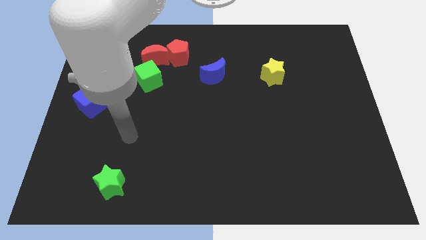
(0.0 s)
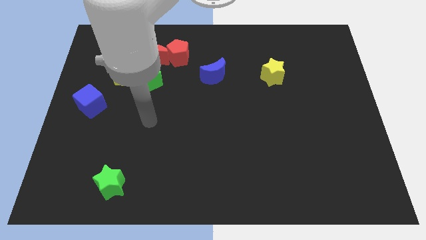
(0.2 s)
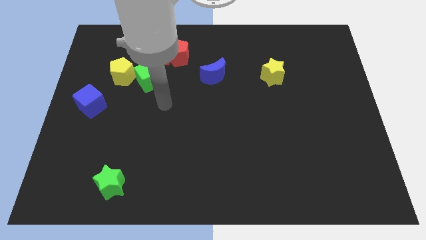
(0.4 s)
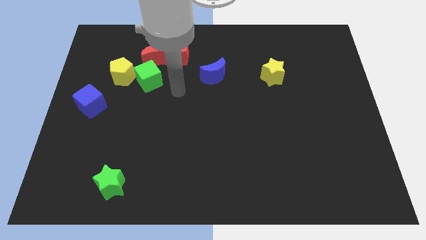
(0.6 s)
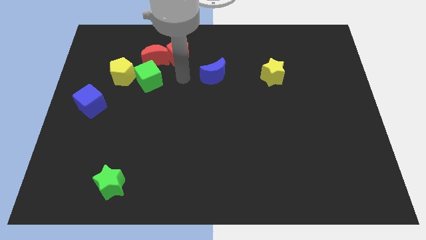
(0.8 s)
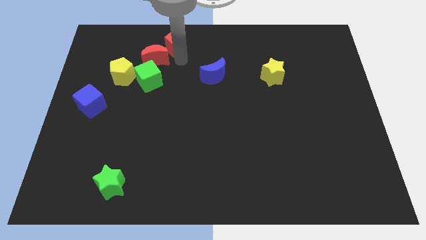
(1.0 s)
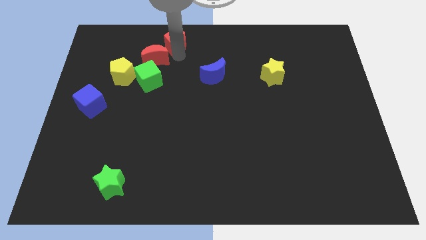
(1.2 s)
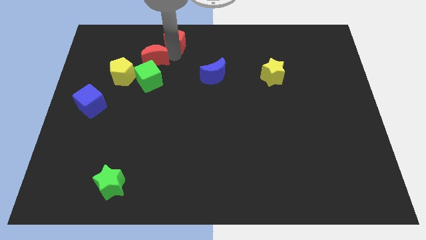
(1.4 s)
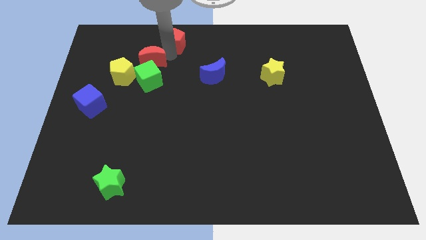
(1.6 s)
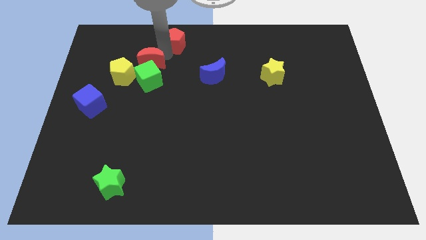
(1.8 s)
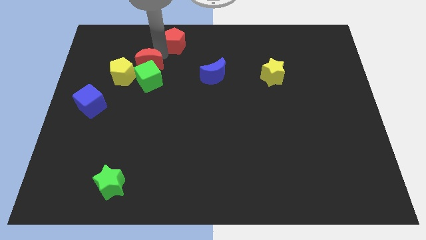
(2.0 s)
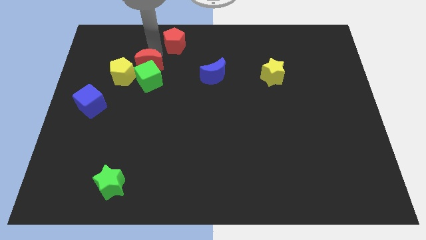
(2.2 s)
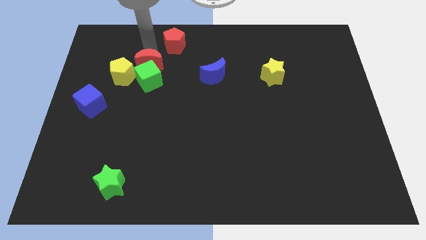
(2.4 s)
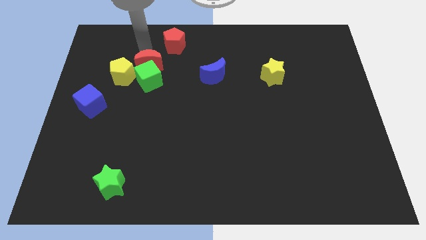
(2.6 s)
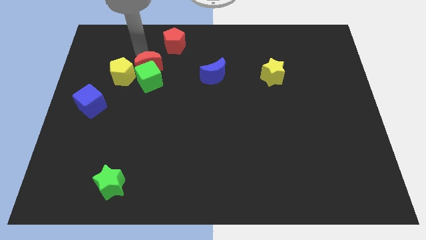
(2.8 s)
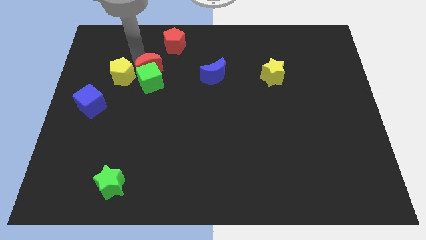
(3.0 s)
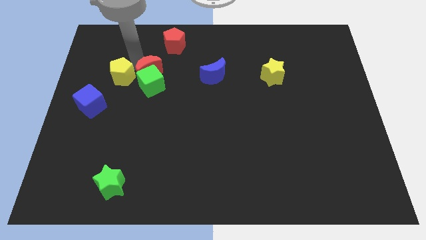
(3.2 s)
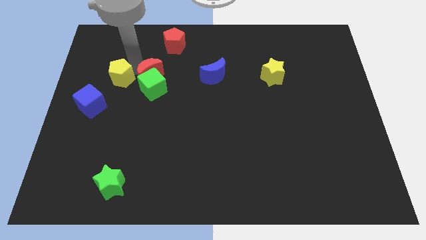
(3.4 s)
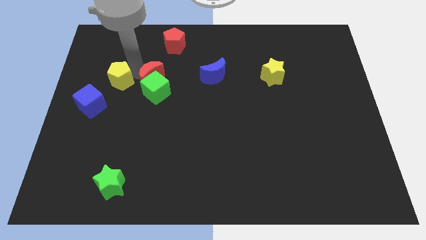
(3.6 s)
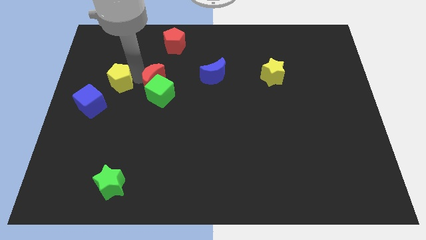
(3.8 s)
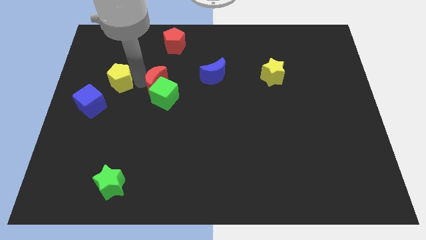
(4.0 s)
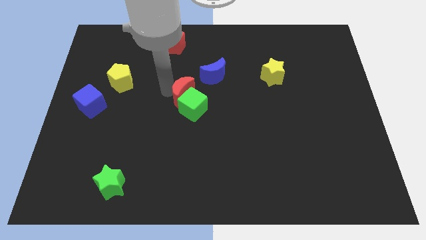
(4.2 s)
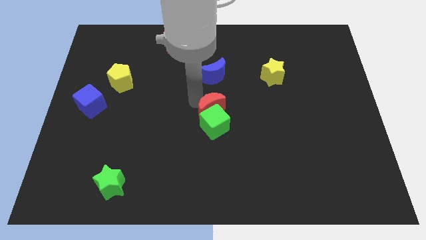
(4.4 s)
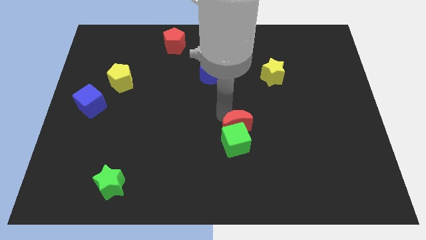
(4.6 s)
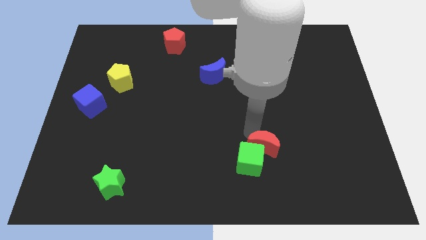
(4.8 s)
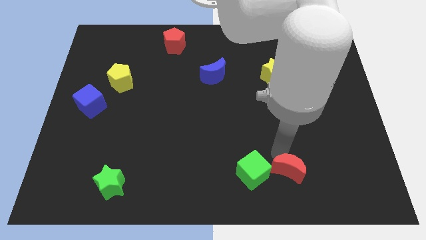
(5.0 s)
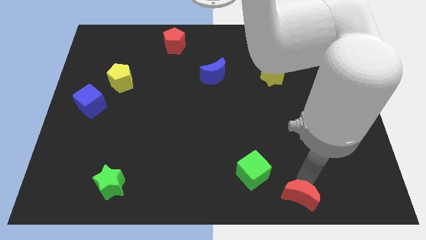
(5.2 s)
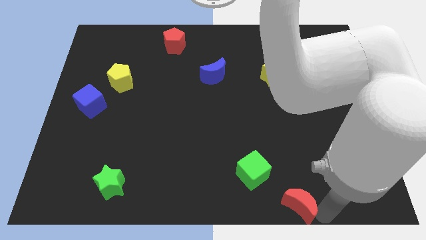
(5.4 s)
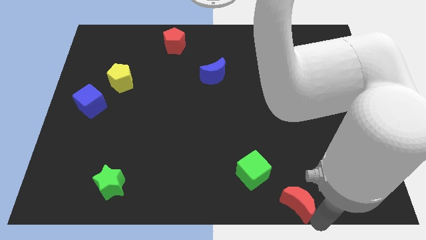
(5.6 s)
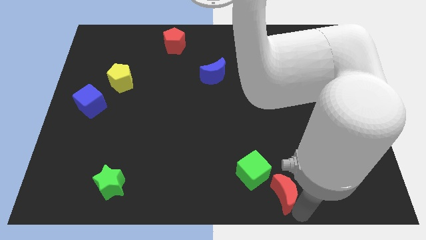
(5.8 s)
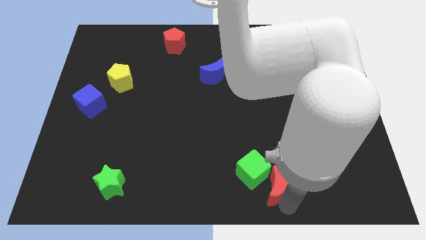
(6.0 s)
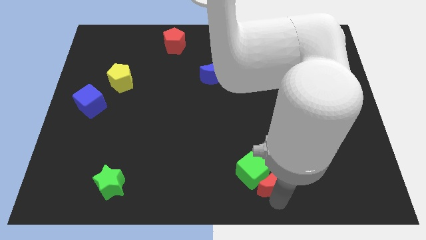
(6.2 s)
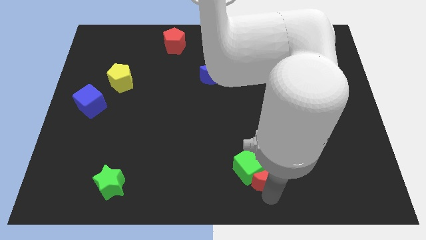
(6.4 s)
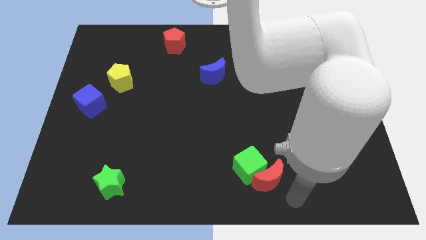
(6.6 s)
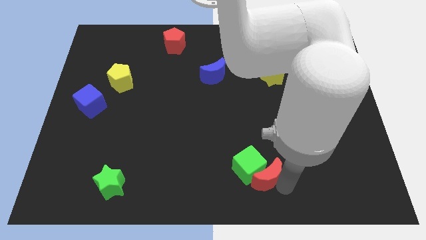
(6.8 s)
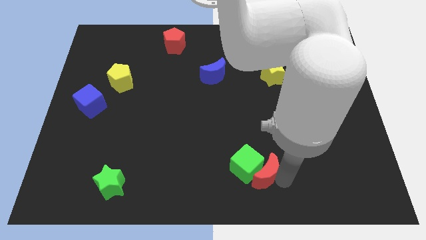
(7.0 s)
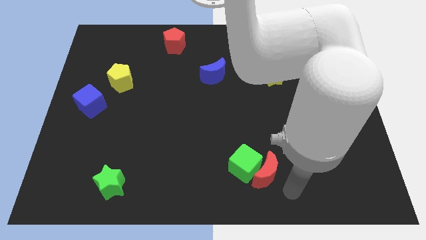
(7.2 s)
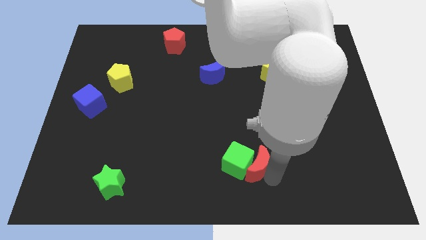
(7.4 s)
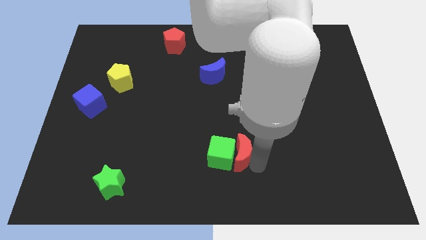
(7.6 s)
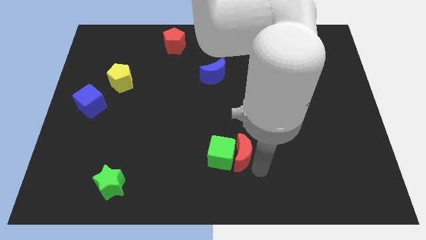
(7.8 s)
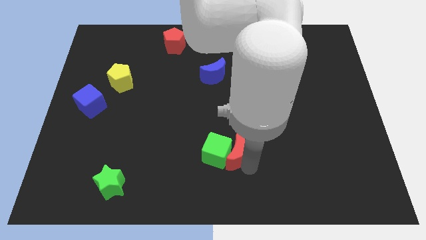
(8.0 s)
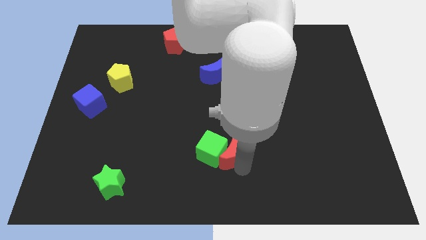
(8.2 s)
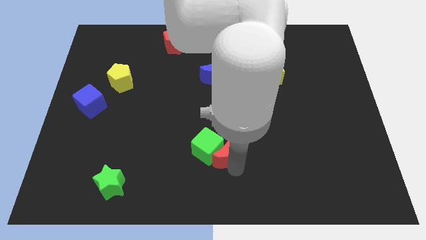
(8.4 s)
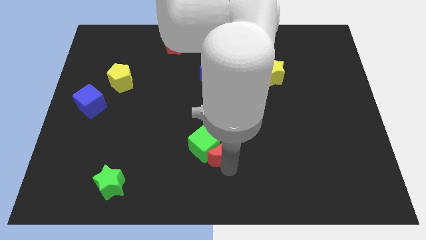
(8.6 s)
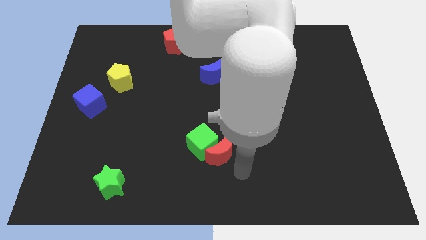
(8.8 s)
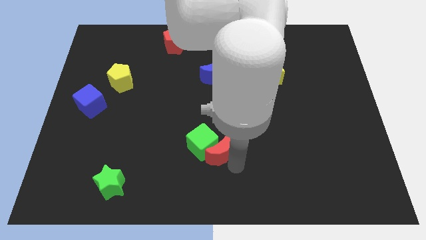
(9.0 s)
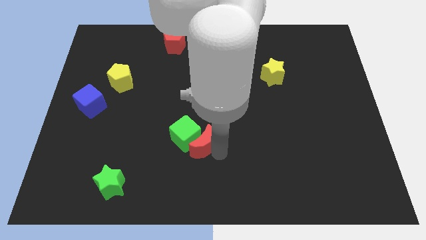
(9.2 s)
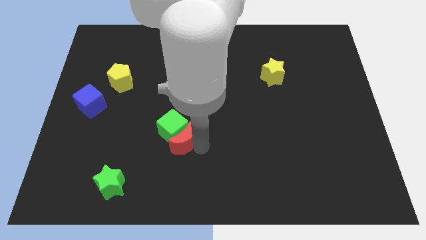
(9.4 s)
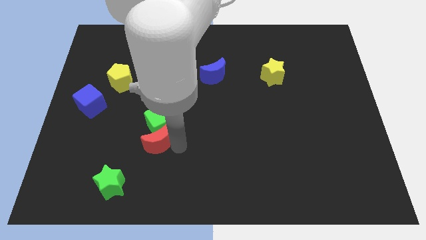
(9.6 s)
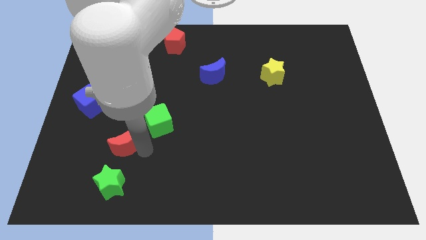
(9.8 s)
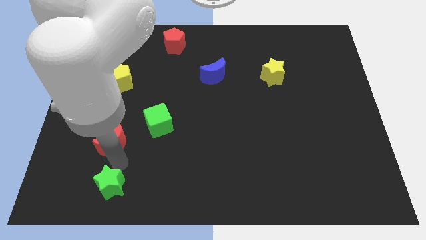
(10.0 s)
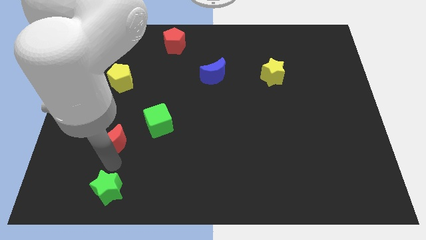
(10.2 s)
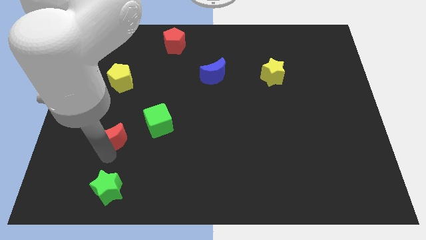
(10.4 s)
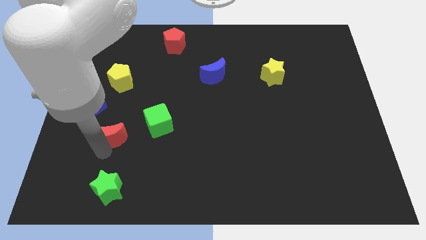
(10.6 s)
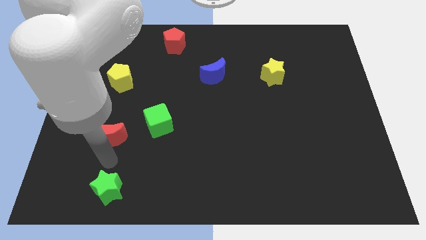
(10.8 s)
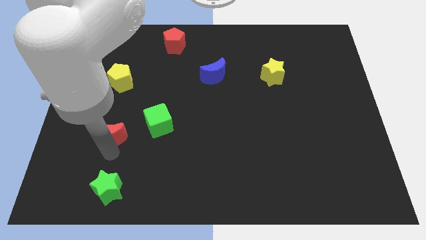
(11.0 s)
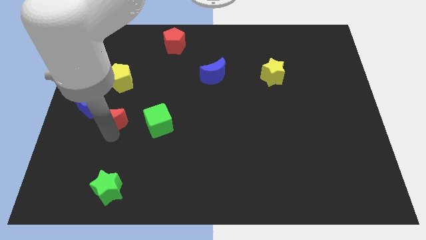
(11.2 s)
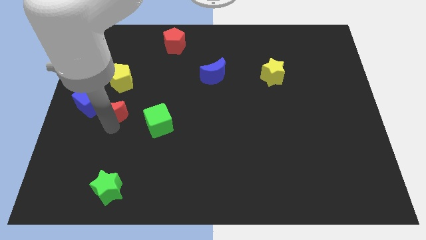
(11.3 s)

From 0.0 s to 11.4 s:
put the red moon next to the blue cube

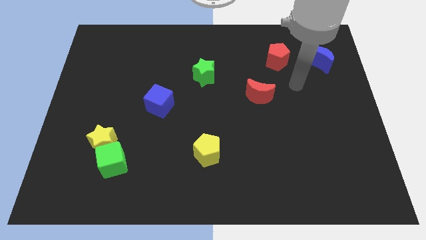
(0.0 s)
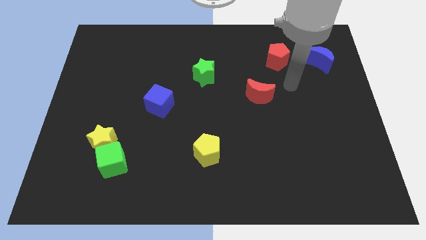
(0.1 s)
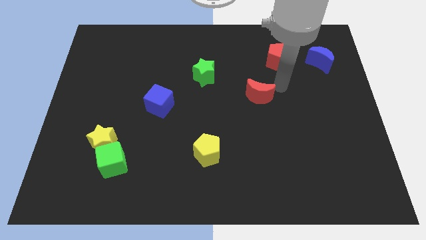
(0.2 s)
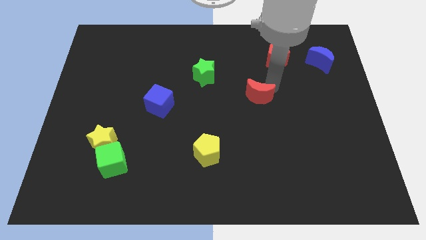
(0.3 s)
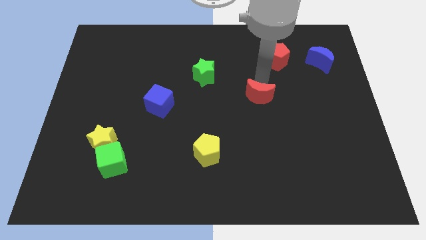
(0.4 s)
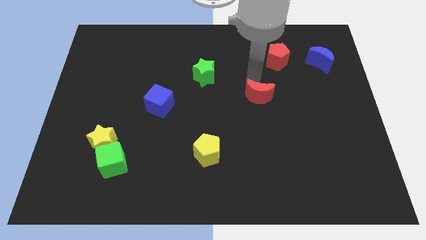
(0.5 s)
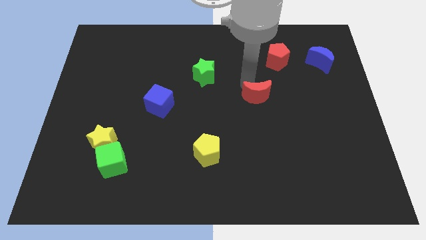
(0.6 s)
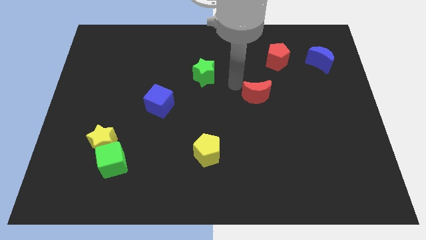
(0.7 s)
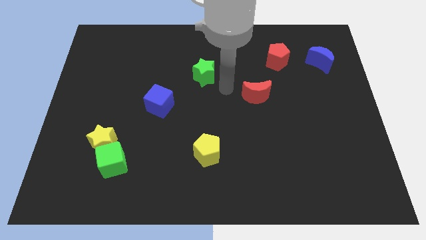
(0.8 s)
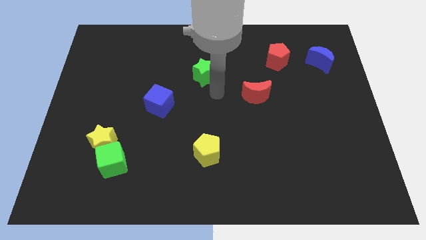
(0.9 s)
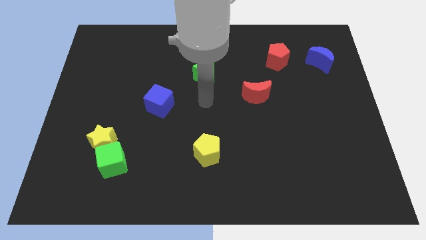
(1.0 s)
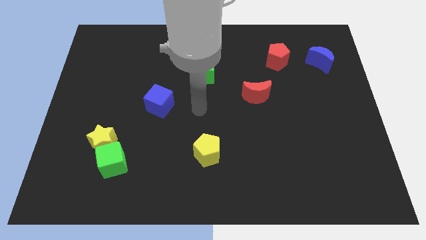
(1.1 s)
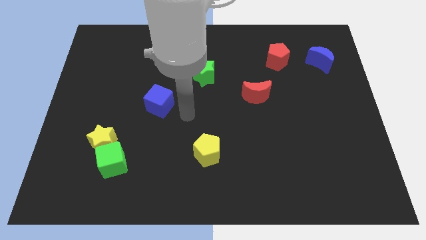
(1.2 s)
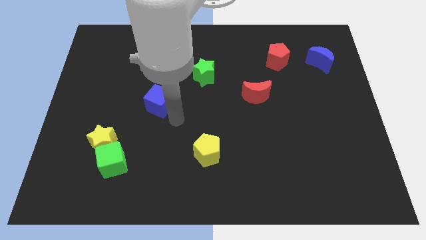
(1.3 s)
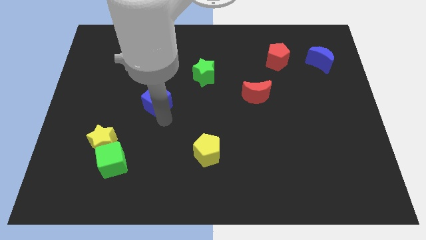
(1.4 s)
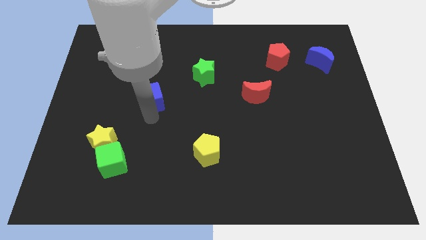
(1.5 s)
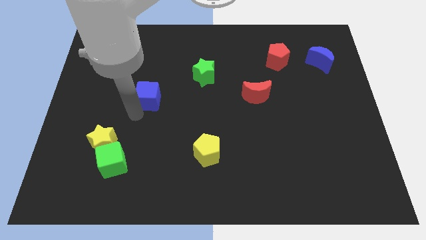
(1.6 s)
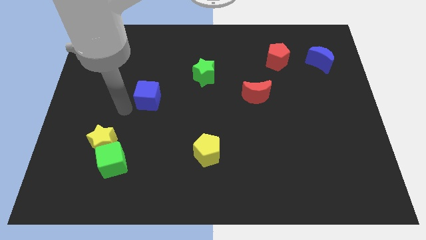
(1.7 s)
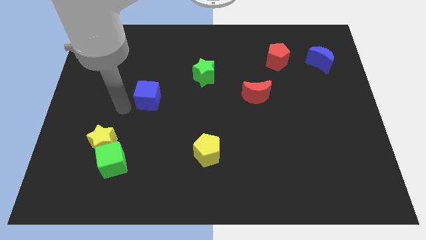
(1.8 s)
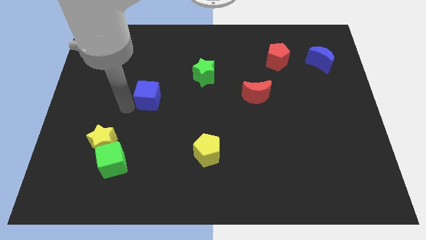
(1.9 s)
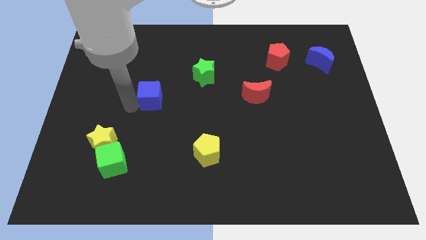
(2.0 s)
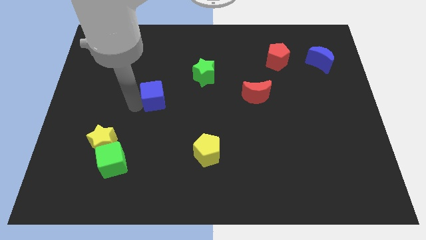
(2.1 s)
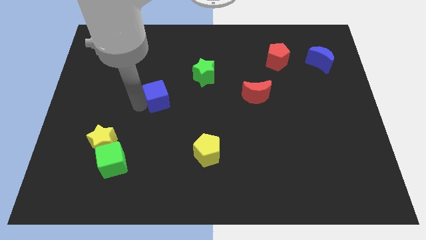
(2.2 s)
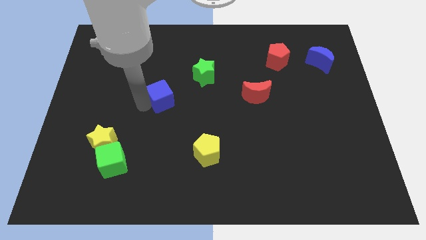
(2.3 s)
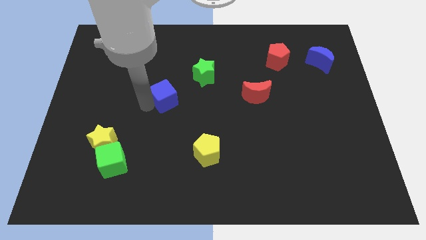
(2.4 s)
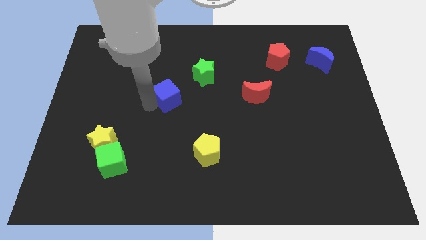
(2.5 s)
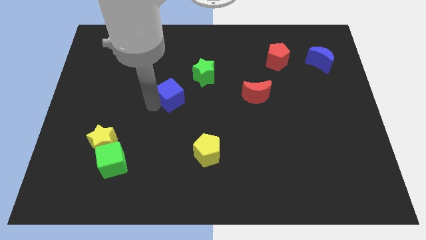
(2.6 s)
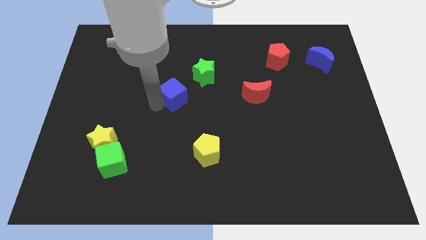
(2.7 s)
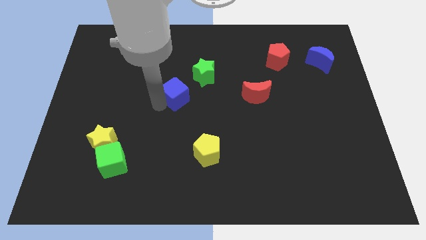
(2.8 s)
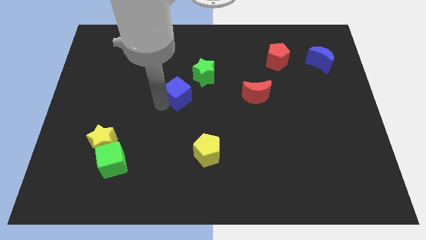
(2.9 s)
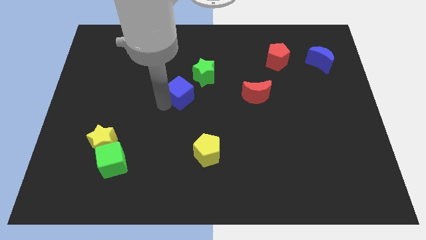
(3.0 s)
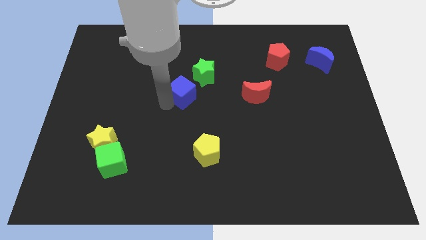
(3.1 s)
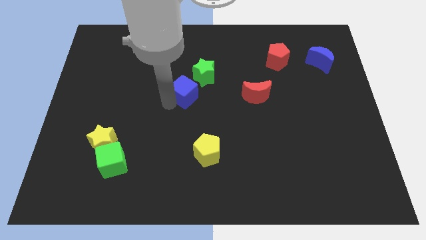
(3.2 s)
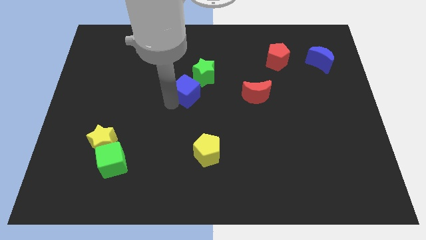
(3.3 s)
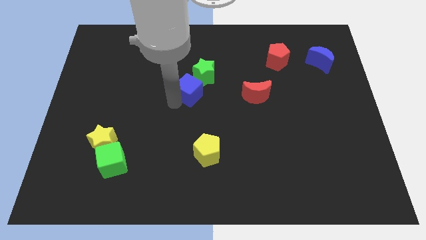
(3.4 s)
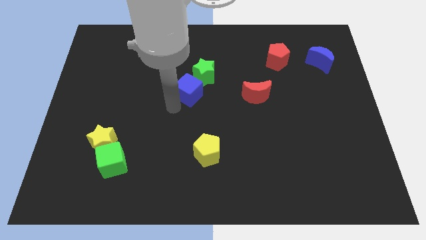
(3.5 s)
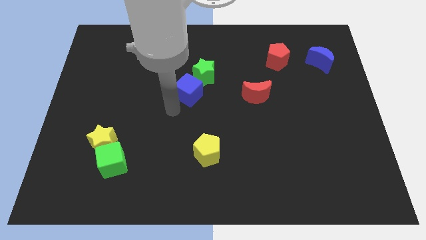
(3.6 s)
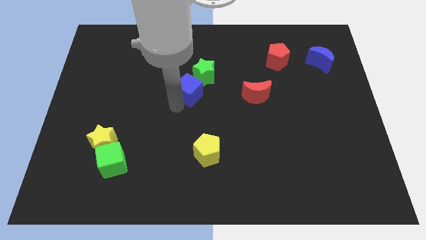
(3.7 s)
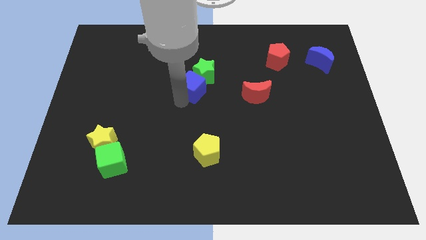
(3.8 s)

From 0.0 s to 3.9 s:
slide the blue cube to the green star
